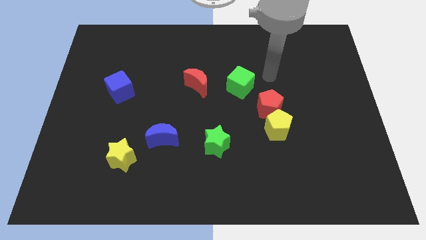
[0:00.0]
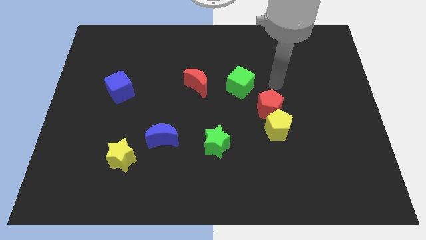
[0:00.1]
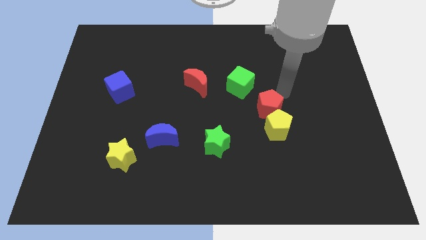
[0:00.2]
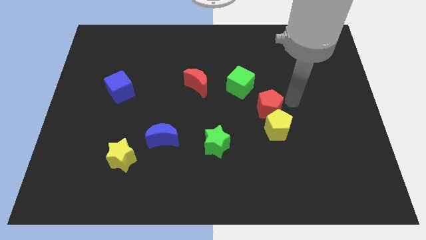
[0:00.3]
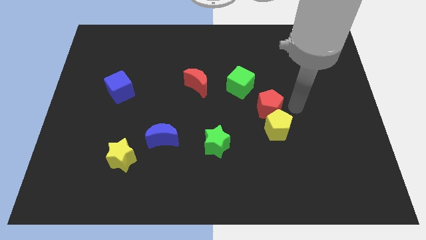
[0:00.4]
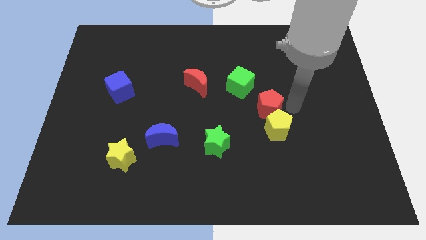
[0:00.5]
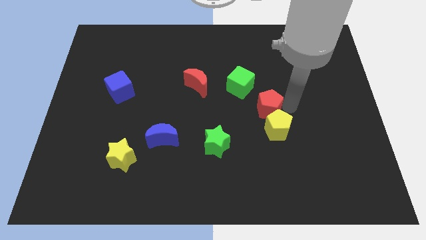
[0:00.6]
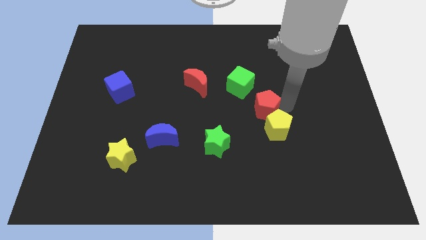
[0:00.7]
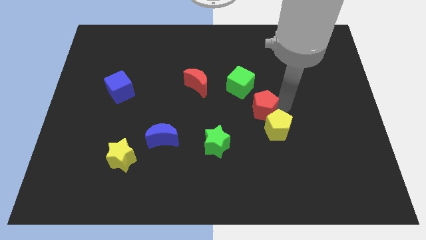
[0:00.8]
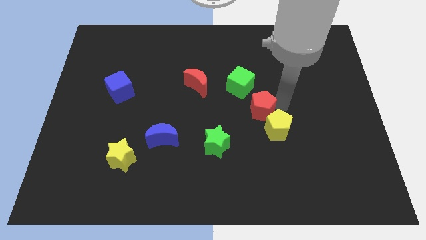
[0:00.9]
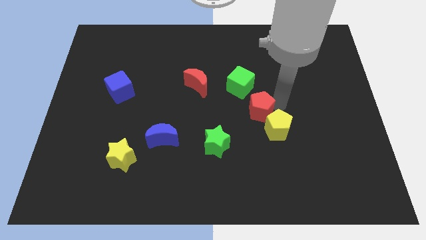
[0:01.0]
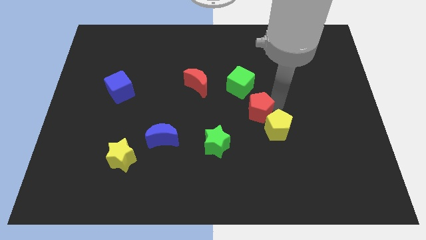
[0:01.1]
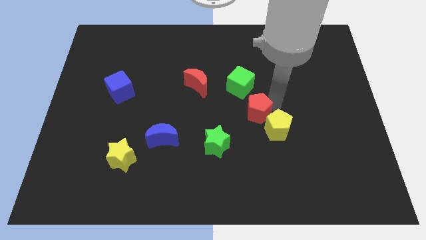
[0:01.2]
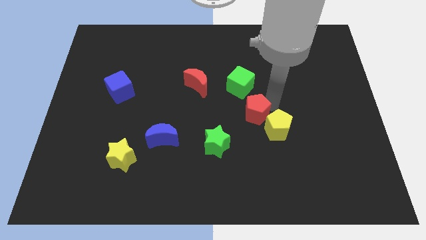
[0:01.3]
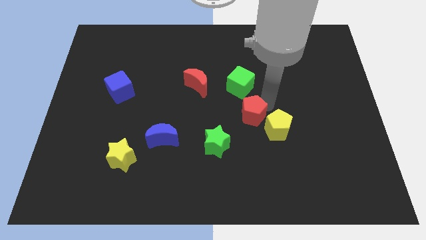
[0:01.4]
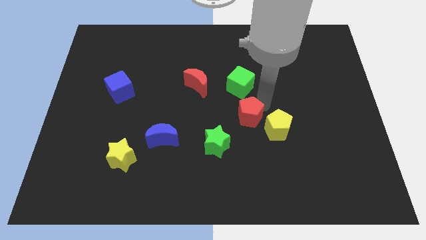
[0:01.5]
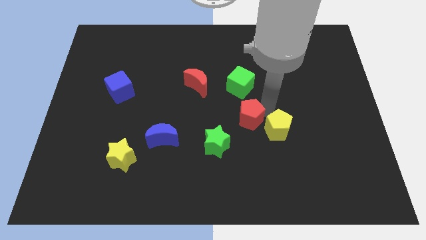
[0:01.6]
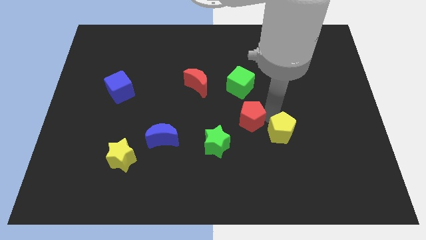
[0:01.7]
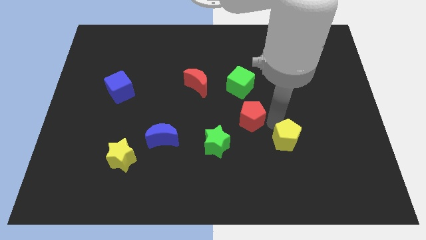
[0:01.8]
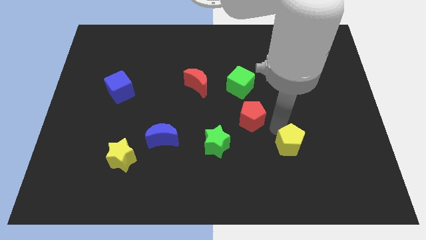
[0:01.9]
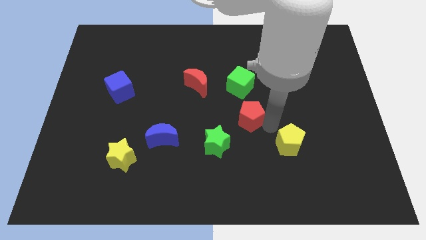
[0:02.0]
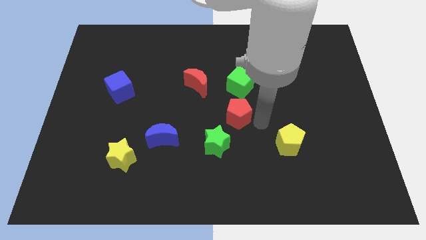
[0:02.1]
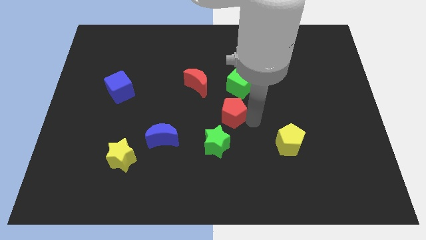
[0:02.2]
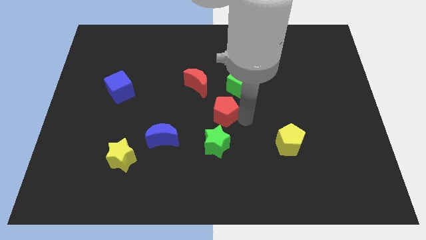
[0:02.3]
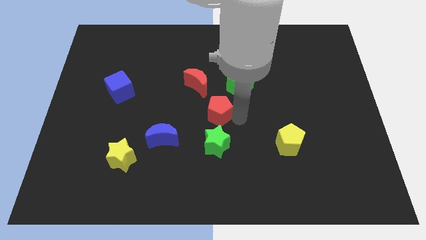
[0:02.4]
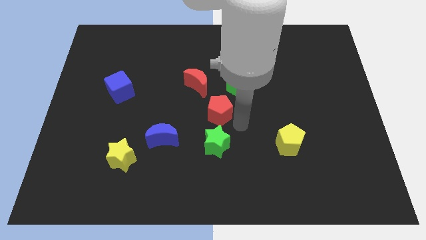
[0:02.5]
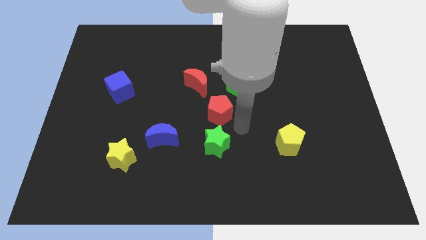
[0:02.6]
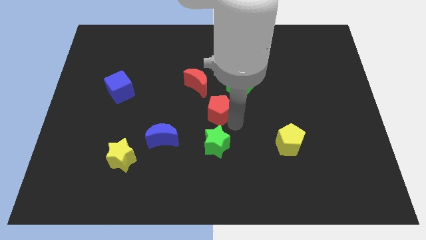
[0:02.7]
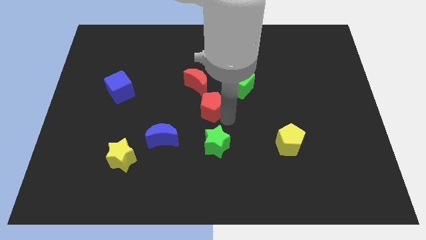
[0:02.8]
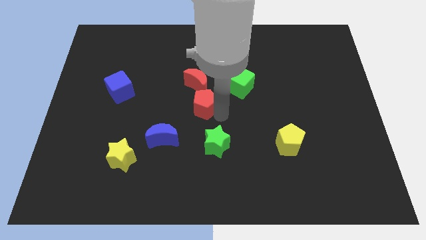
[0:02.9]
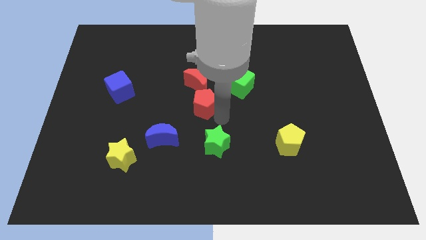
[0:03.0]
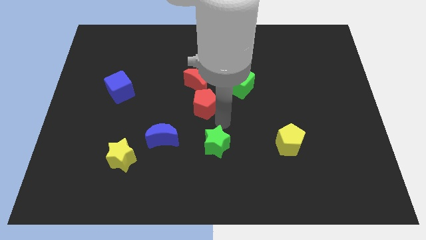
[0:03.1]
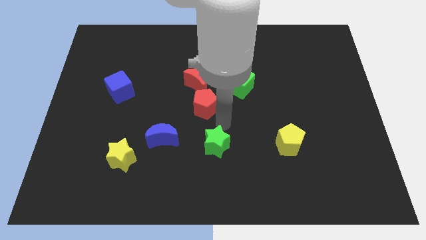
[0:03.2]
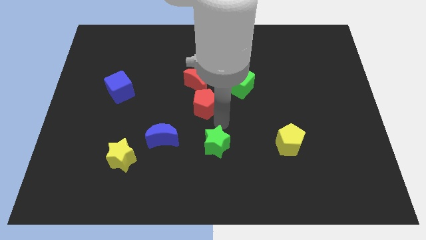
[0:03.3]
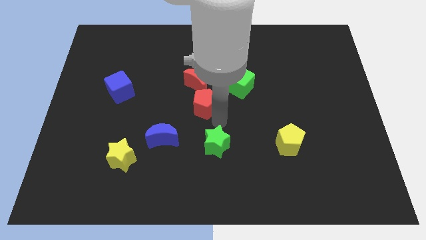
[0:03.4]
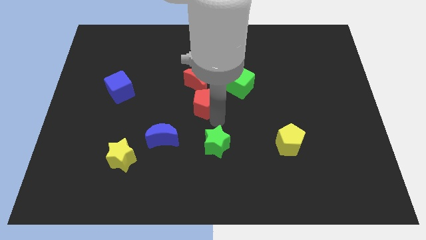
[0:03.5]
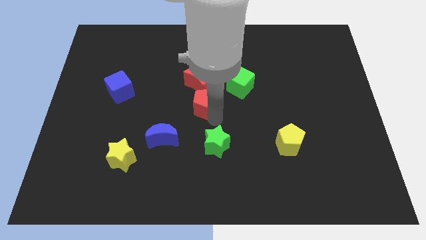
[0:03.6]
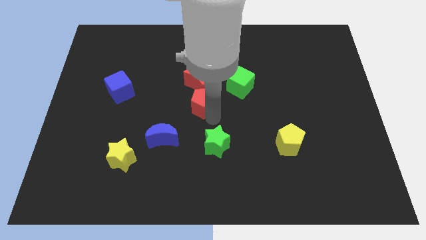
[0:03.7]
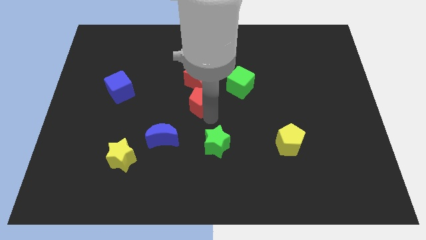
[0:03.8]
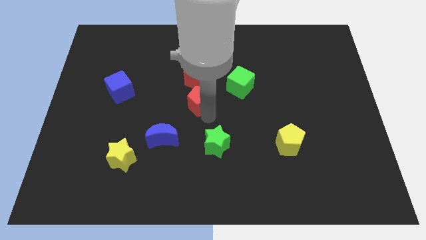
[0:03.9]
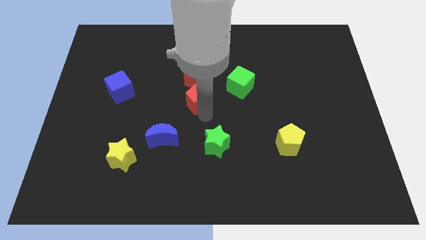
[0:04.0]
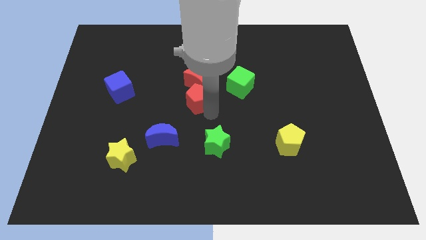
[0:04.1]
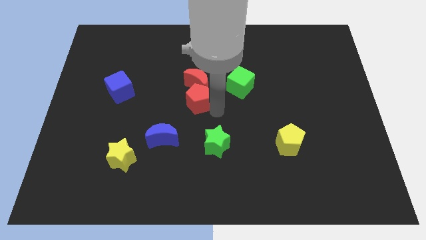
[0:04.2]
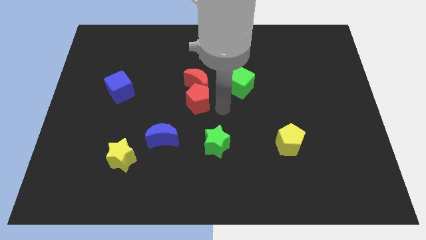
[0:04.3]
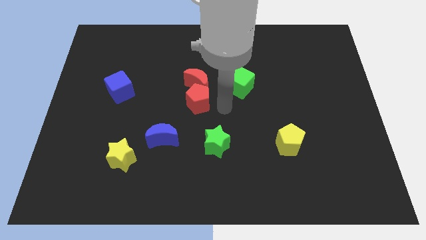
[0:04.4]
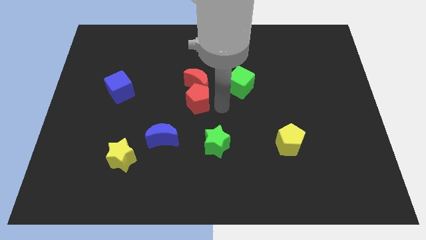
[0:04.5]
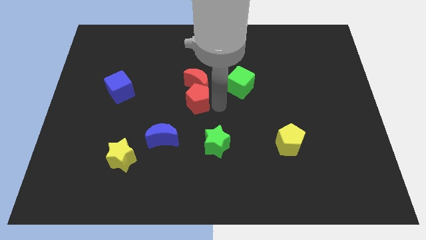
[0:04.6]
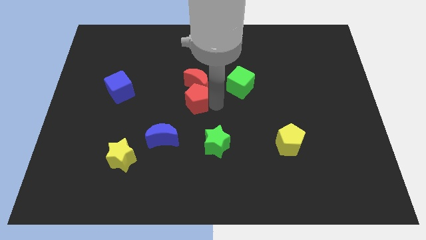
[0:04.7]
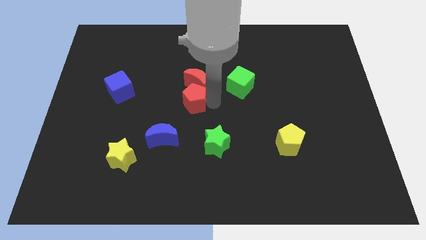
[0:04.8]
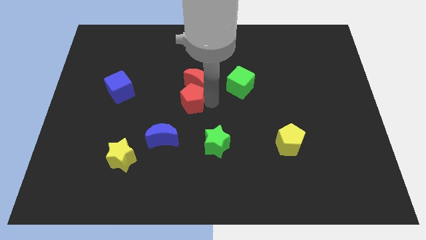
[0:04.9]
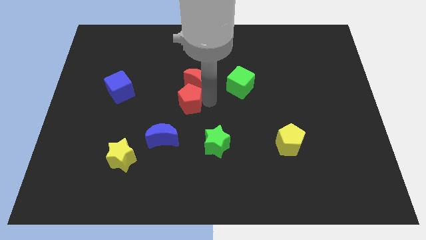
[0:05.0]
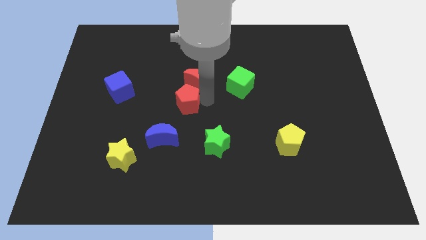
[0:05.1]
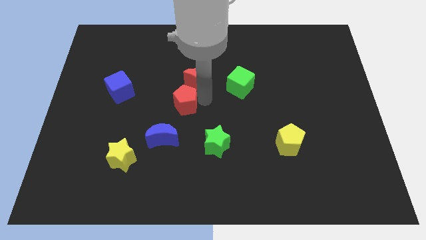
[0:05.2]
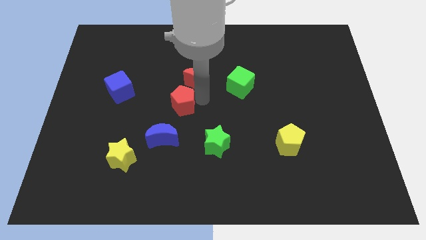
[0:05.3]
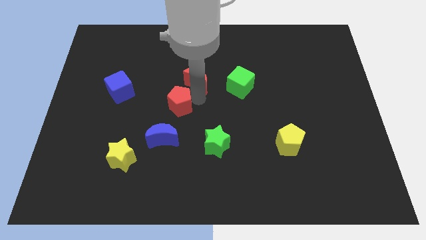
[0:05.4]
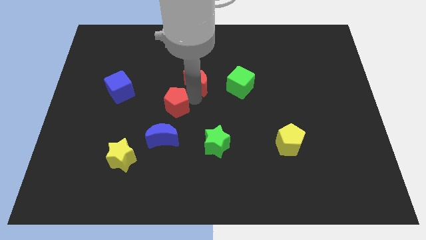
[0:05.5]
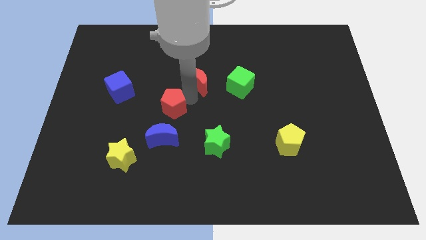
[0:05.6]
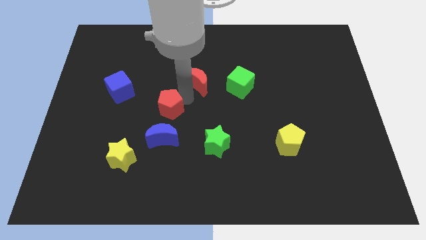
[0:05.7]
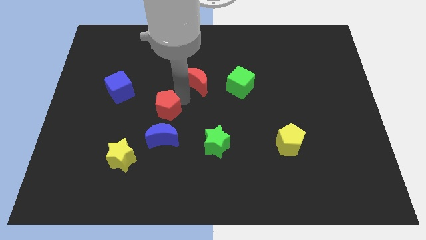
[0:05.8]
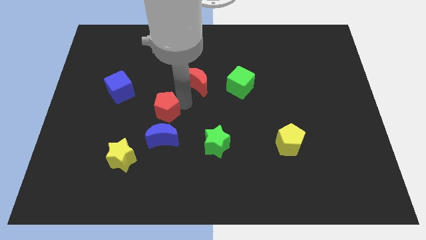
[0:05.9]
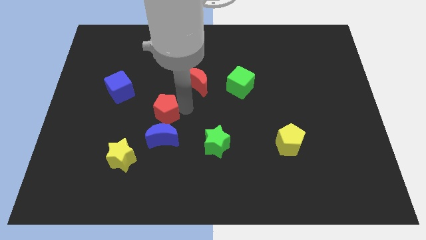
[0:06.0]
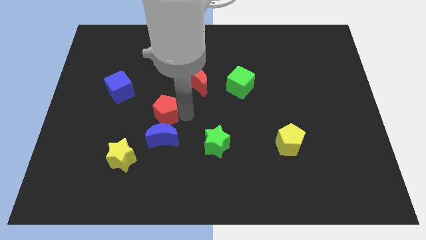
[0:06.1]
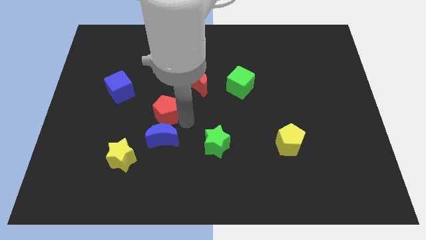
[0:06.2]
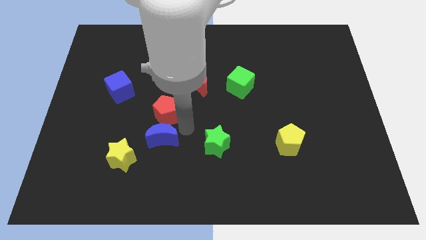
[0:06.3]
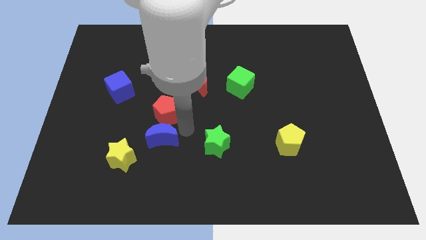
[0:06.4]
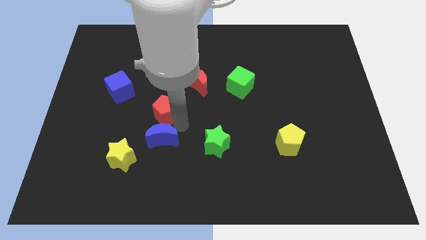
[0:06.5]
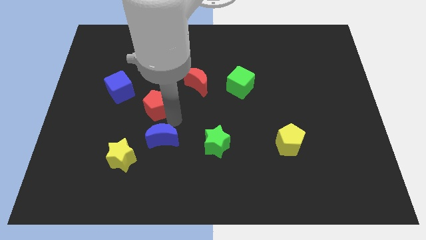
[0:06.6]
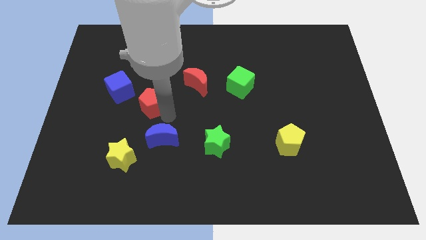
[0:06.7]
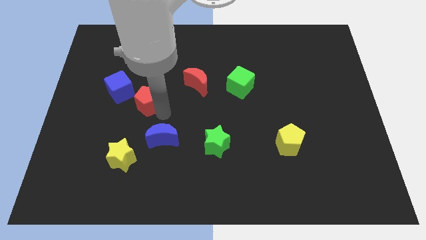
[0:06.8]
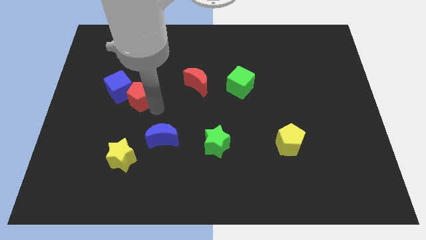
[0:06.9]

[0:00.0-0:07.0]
push the red pentagon to the blue cube

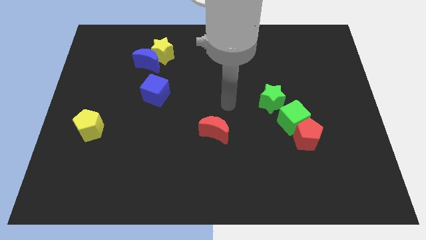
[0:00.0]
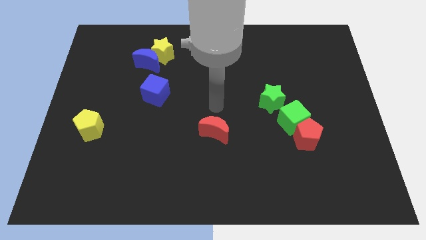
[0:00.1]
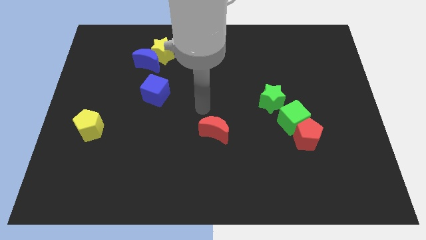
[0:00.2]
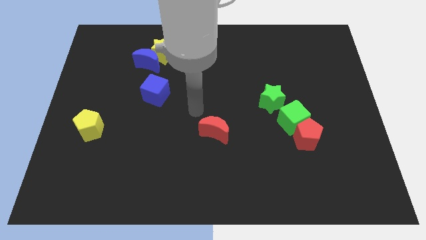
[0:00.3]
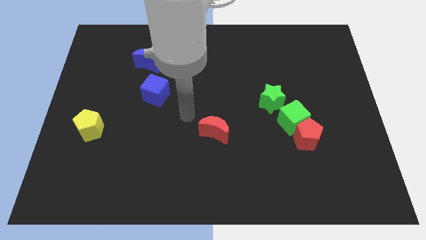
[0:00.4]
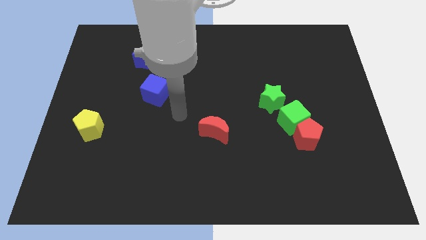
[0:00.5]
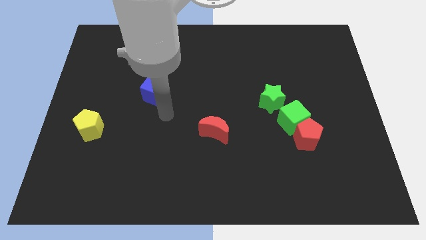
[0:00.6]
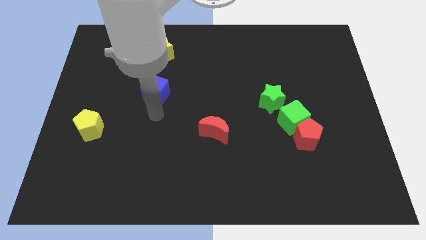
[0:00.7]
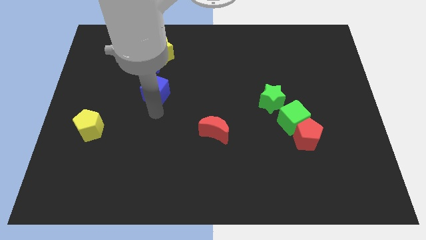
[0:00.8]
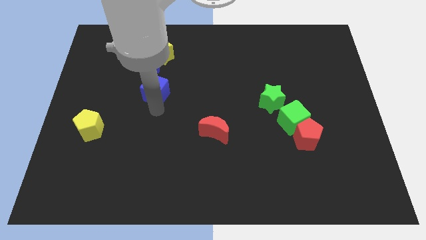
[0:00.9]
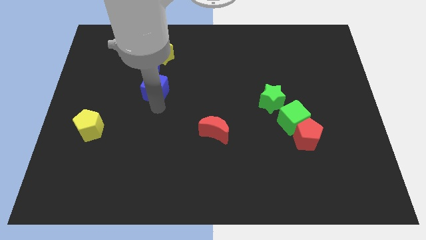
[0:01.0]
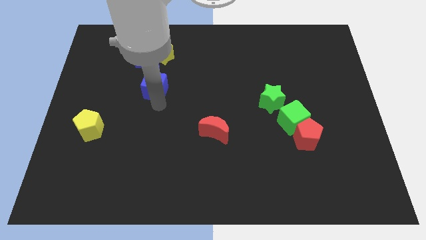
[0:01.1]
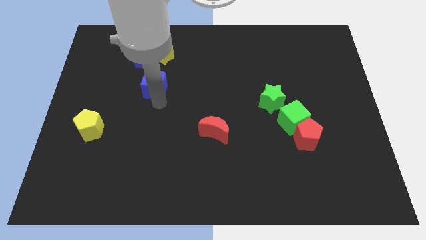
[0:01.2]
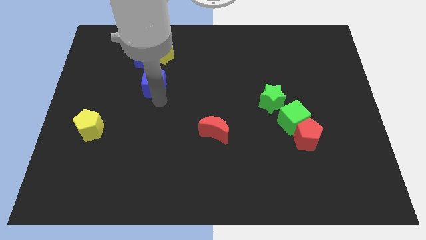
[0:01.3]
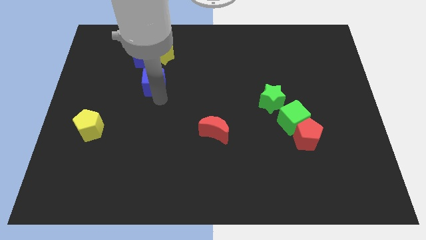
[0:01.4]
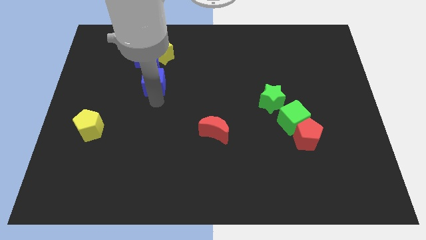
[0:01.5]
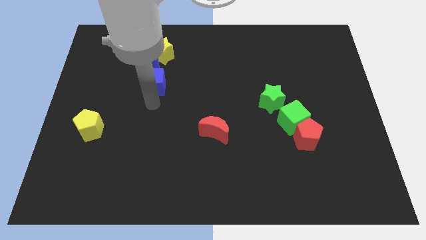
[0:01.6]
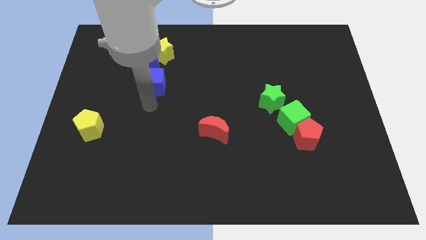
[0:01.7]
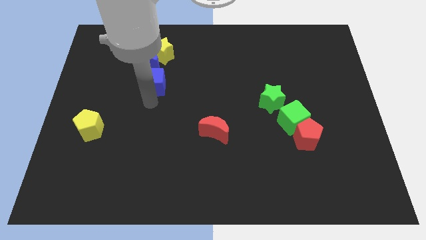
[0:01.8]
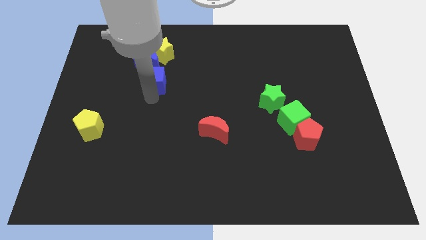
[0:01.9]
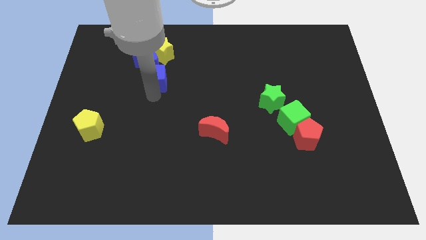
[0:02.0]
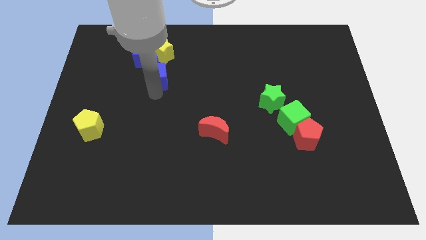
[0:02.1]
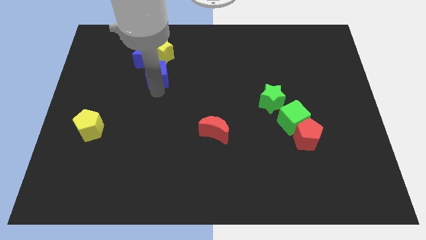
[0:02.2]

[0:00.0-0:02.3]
slide the blue cube towards the blue moon
